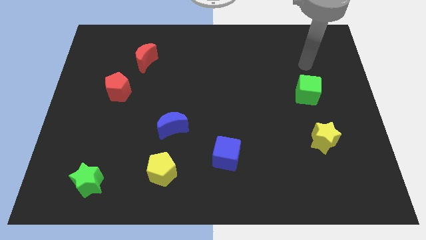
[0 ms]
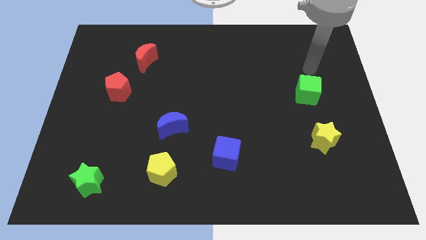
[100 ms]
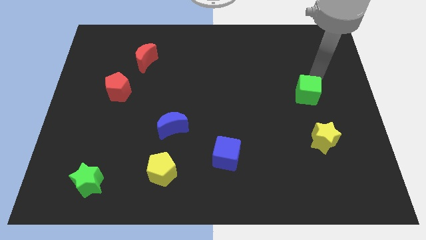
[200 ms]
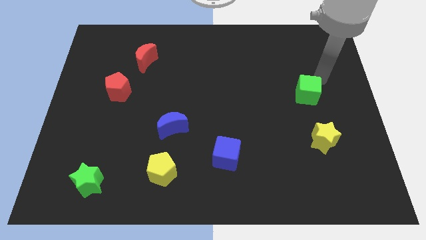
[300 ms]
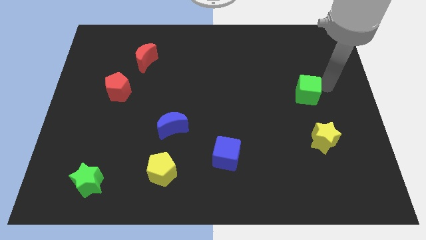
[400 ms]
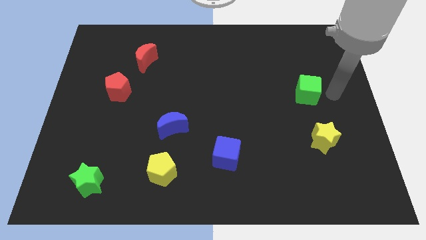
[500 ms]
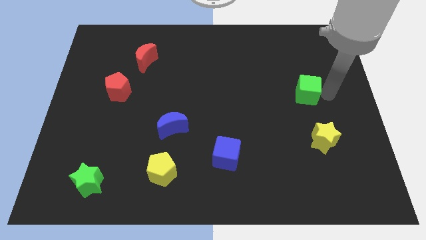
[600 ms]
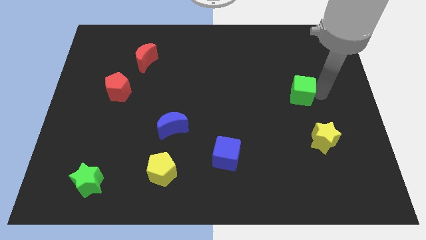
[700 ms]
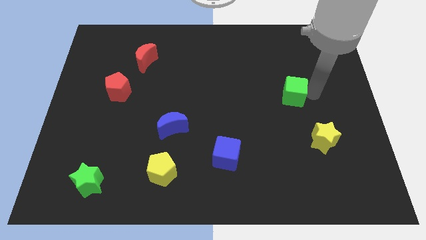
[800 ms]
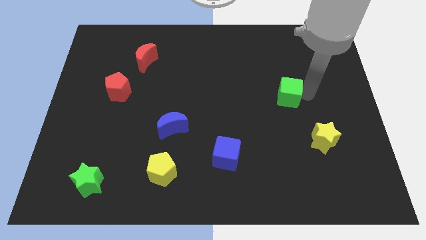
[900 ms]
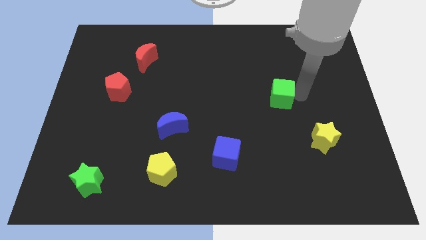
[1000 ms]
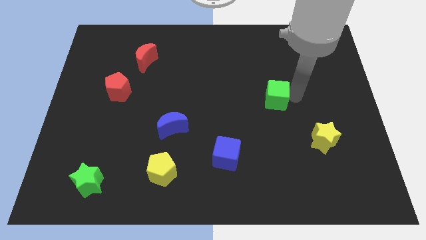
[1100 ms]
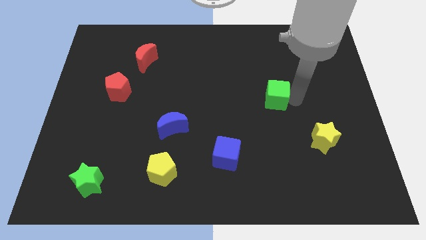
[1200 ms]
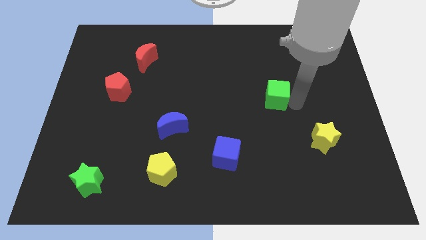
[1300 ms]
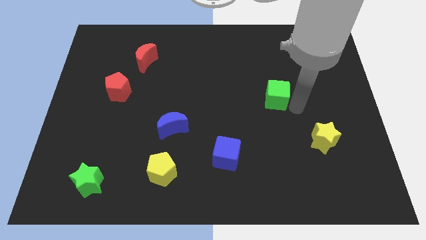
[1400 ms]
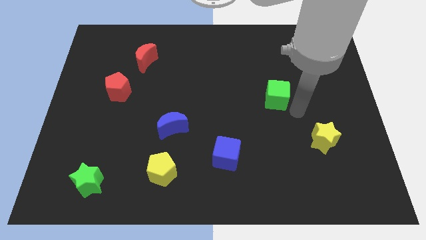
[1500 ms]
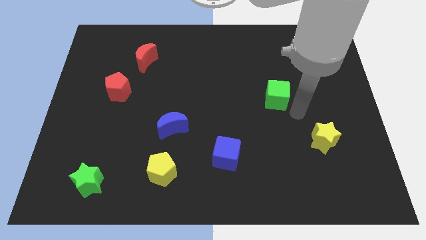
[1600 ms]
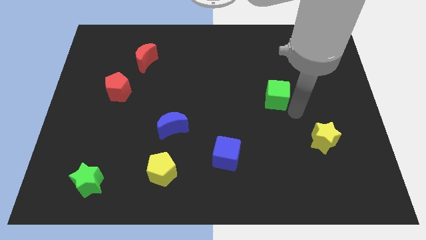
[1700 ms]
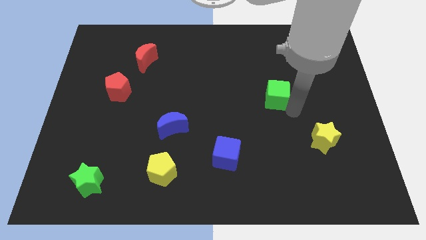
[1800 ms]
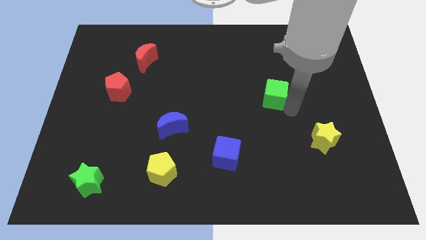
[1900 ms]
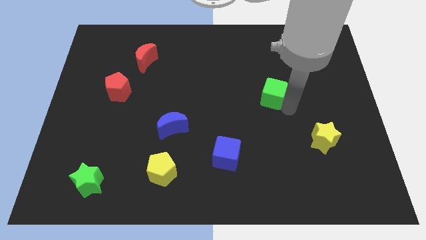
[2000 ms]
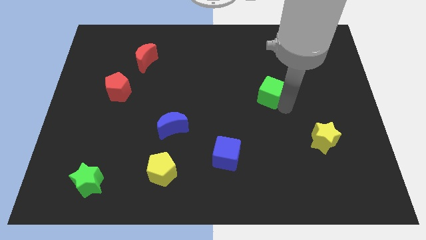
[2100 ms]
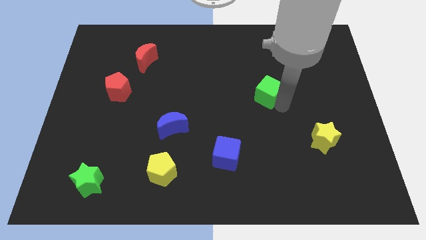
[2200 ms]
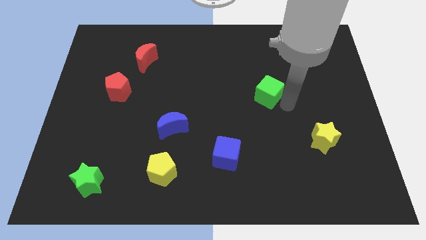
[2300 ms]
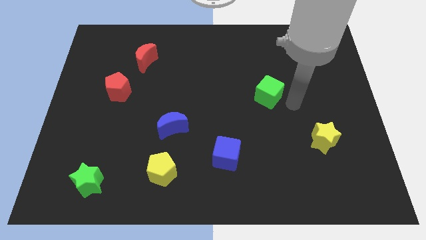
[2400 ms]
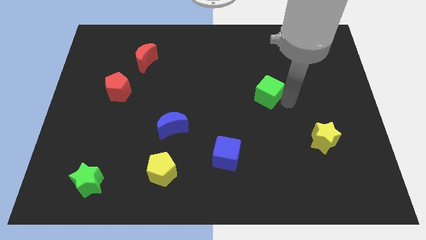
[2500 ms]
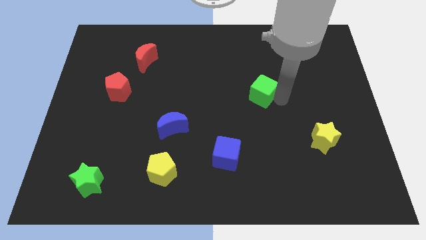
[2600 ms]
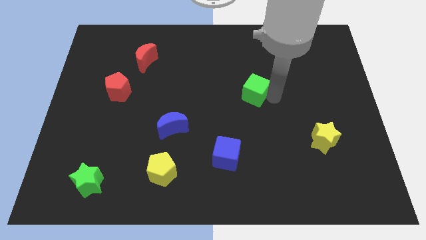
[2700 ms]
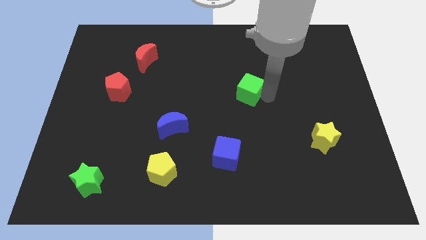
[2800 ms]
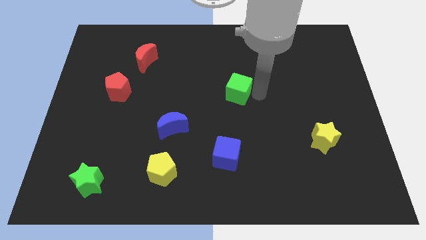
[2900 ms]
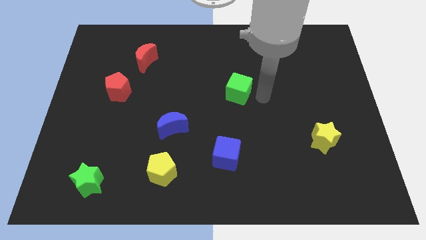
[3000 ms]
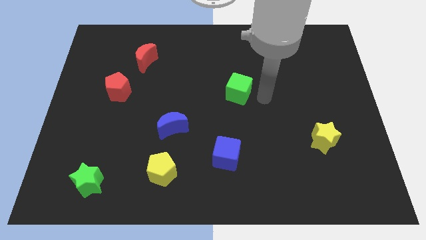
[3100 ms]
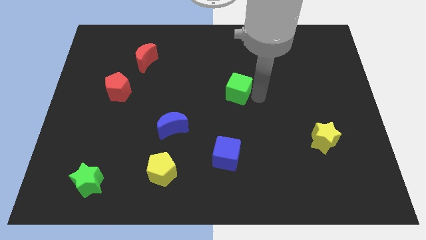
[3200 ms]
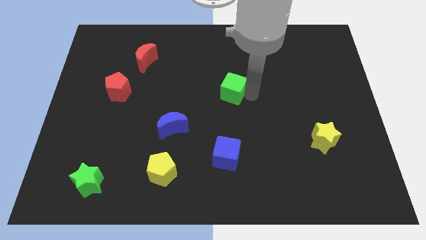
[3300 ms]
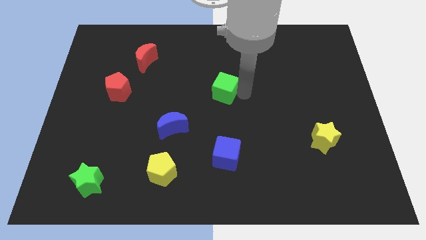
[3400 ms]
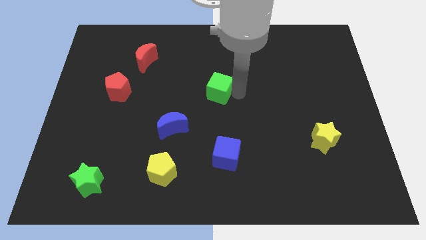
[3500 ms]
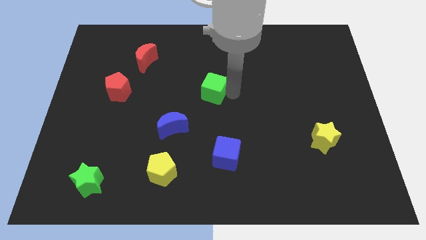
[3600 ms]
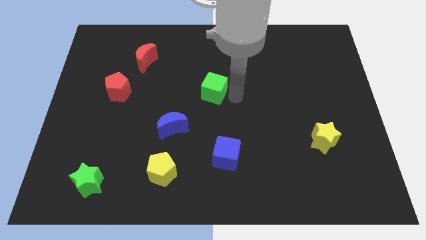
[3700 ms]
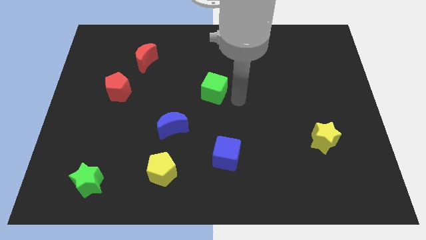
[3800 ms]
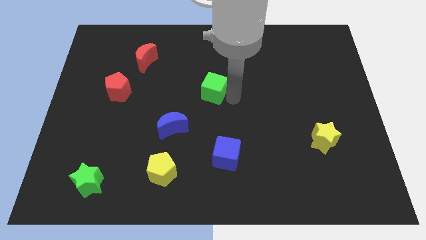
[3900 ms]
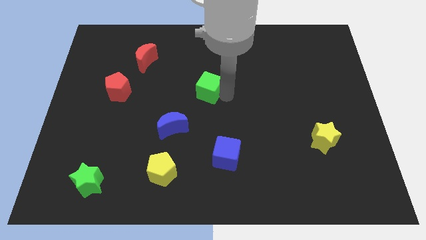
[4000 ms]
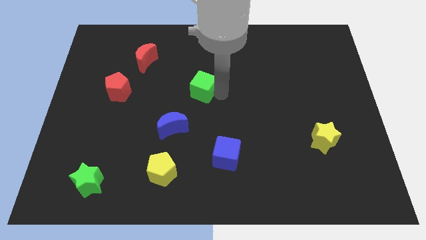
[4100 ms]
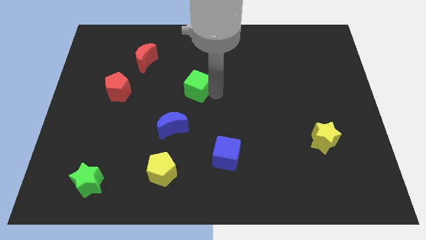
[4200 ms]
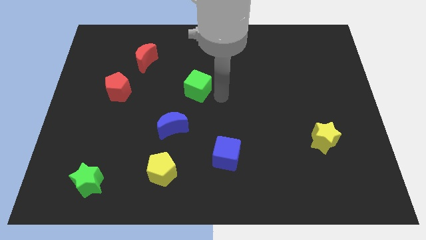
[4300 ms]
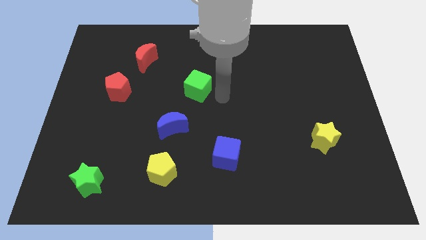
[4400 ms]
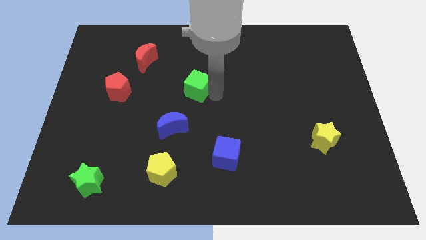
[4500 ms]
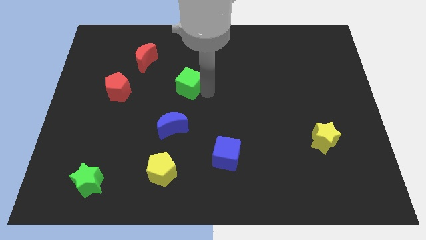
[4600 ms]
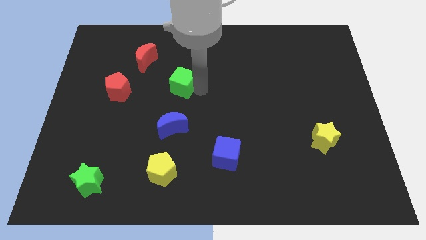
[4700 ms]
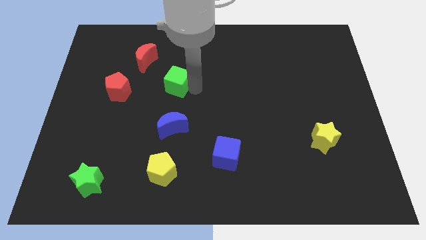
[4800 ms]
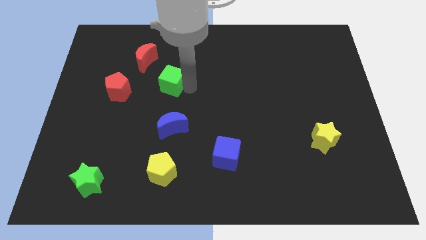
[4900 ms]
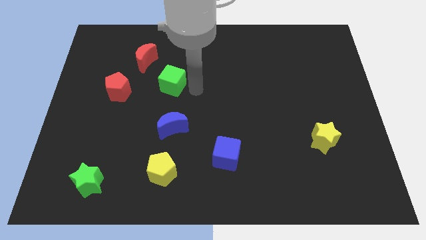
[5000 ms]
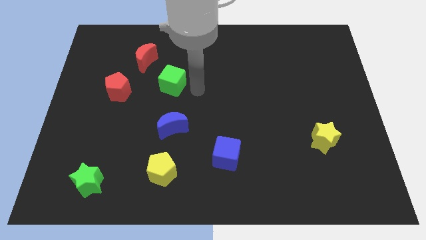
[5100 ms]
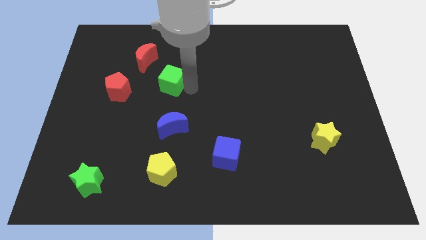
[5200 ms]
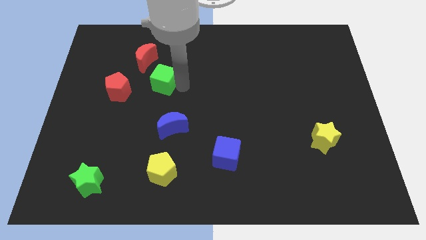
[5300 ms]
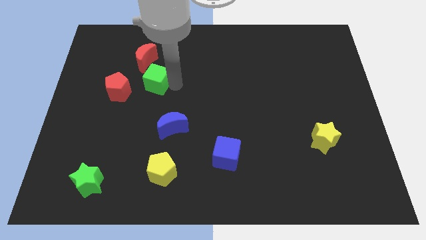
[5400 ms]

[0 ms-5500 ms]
move the green cube to the top right side of the red pentagon

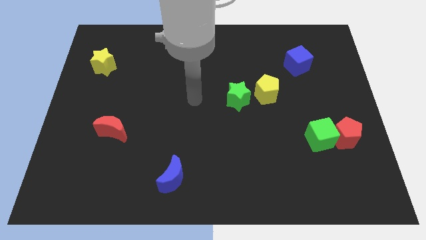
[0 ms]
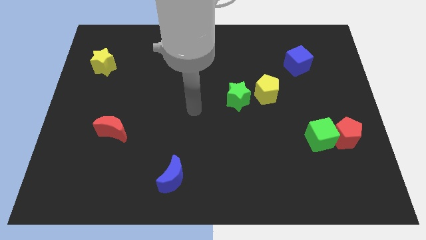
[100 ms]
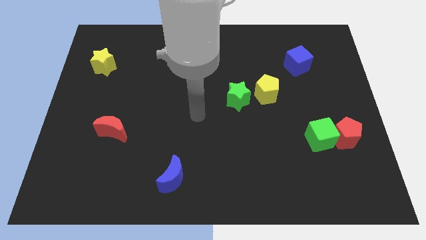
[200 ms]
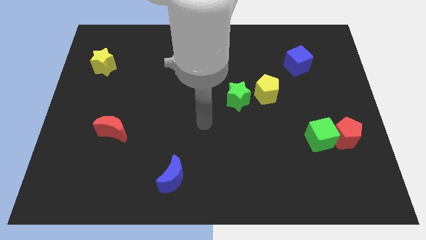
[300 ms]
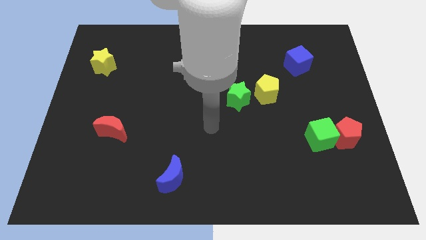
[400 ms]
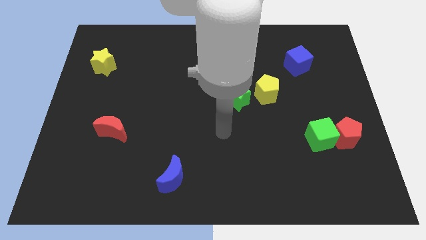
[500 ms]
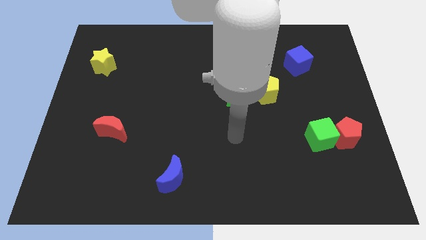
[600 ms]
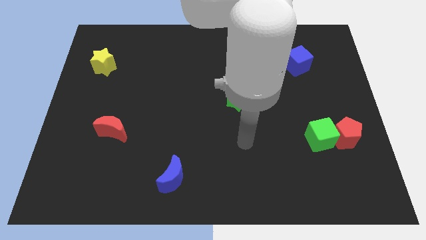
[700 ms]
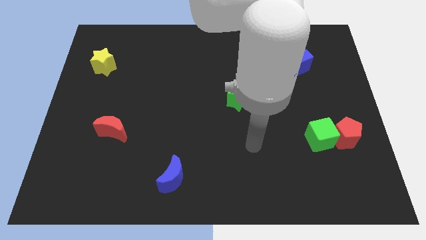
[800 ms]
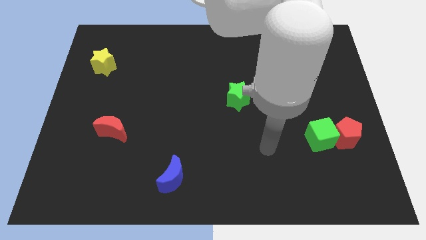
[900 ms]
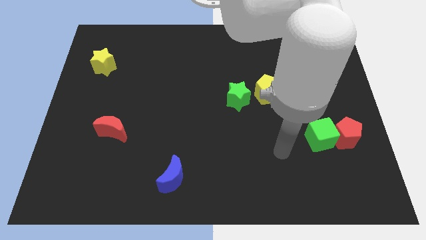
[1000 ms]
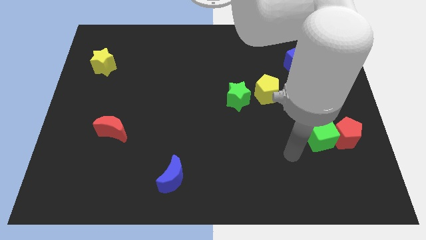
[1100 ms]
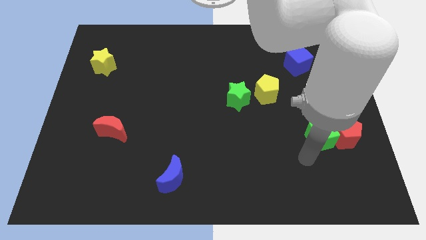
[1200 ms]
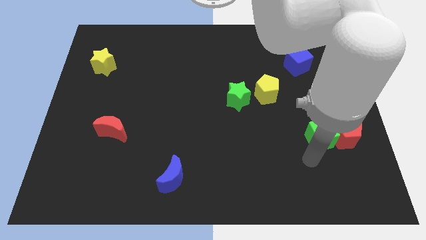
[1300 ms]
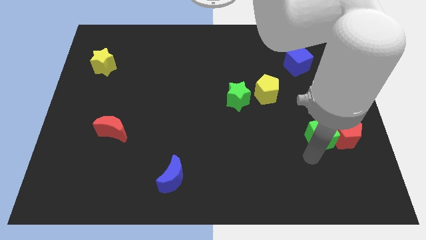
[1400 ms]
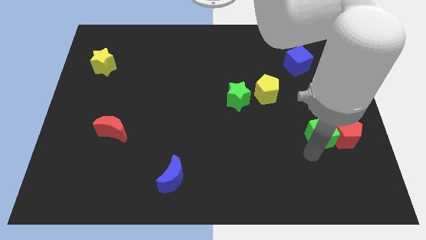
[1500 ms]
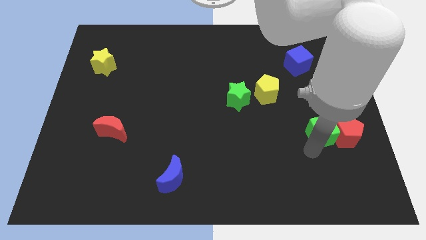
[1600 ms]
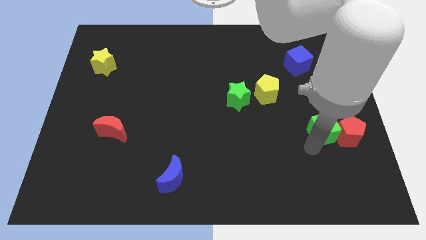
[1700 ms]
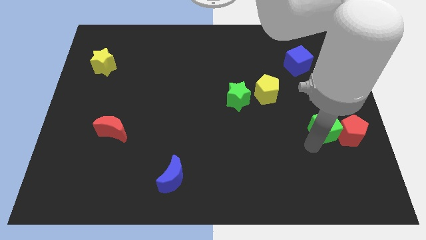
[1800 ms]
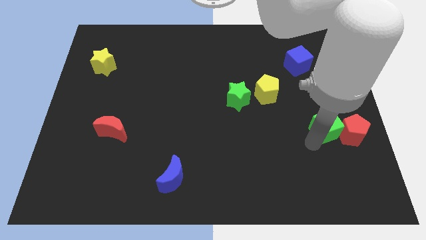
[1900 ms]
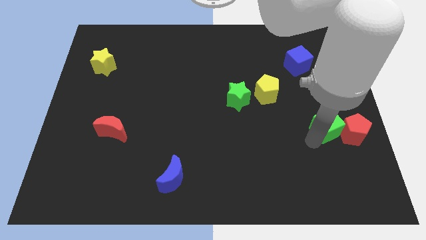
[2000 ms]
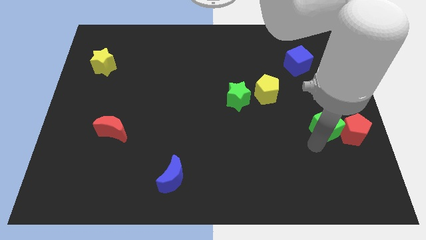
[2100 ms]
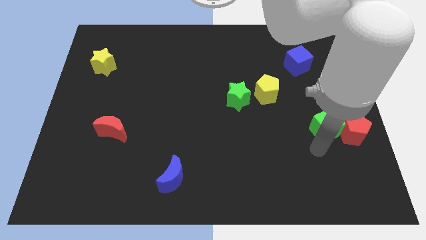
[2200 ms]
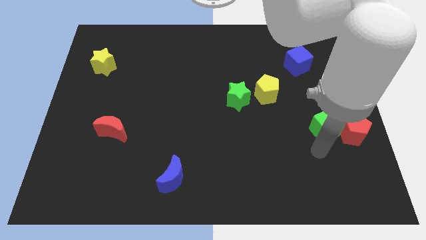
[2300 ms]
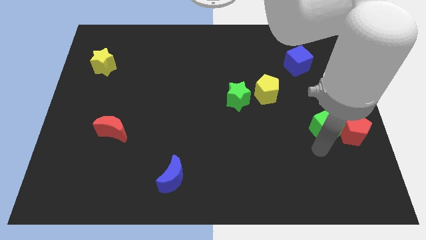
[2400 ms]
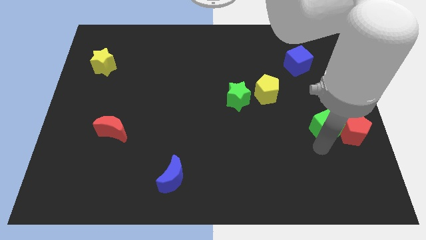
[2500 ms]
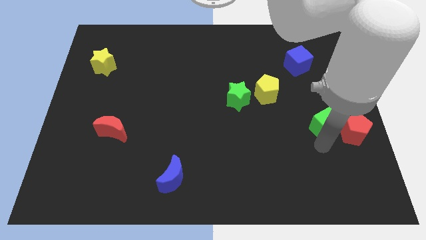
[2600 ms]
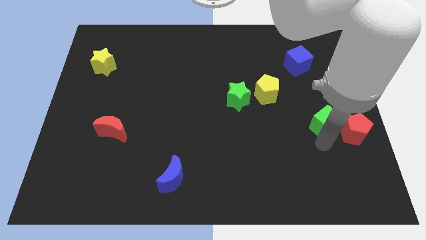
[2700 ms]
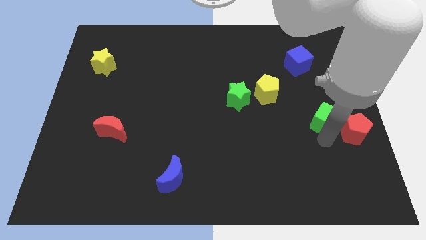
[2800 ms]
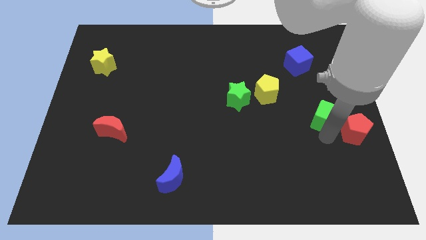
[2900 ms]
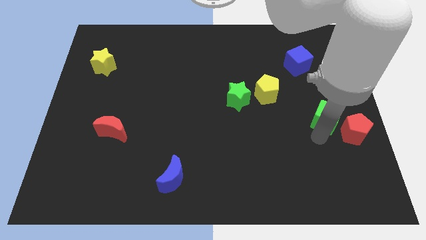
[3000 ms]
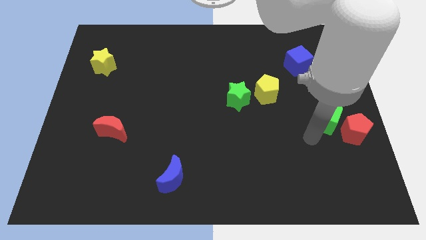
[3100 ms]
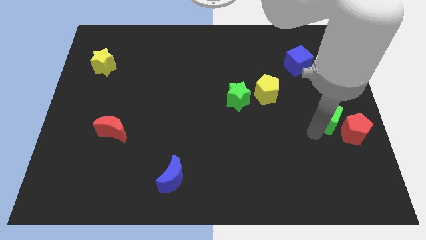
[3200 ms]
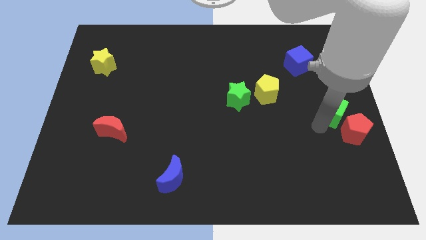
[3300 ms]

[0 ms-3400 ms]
move the green cube above the red pentagon
